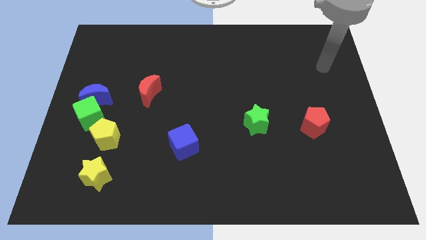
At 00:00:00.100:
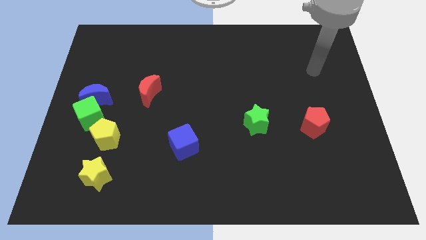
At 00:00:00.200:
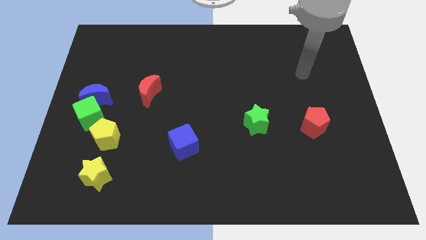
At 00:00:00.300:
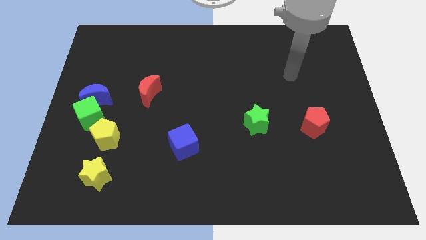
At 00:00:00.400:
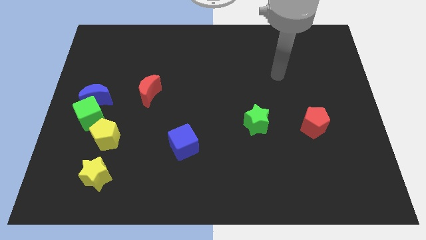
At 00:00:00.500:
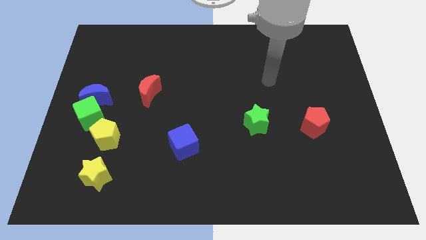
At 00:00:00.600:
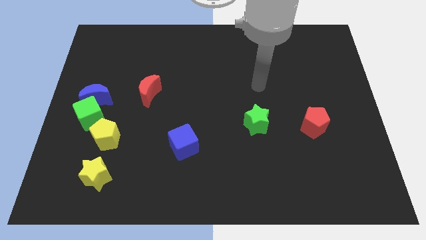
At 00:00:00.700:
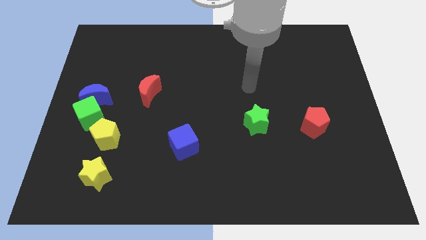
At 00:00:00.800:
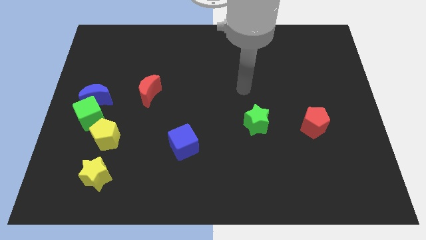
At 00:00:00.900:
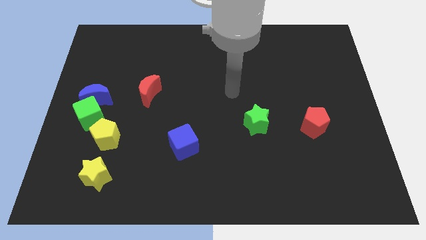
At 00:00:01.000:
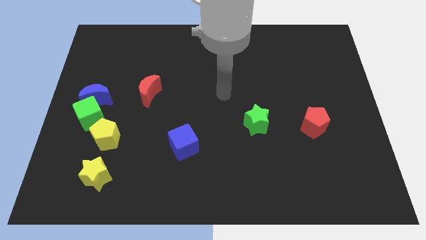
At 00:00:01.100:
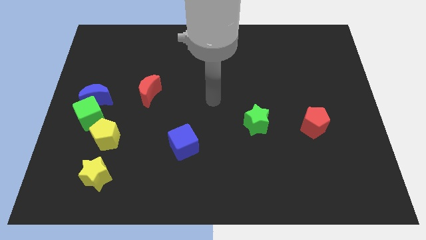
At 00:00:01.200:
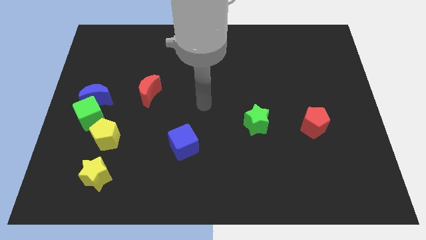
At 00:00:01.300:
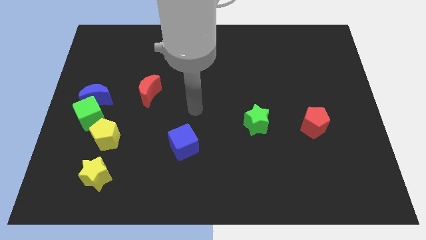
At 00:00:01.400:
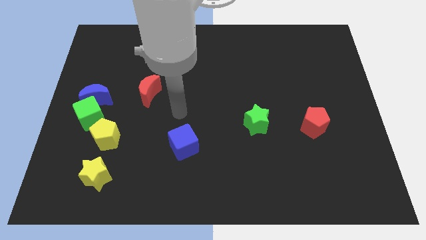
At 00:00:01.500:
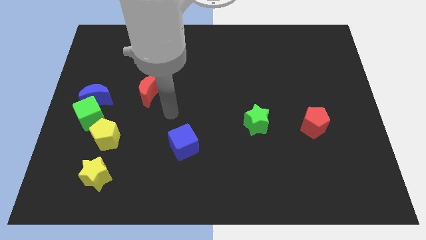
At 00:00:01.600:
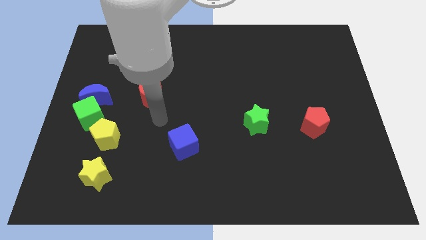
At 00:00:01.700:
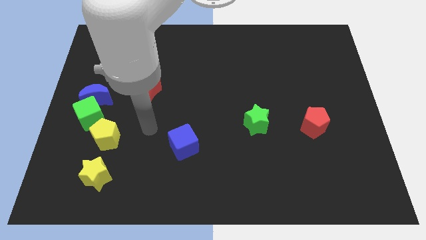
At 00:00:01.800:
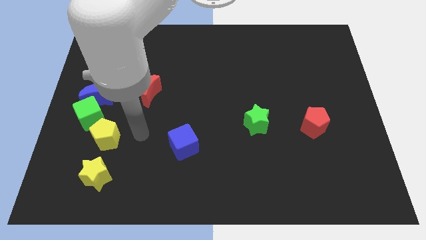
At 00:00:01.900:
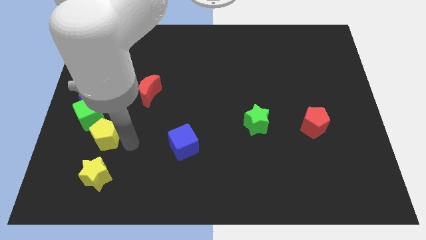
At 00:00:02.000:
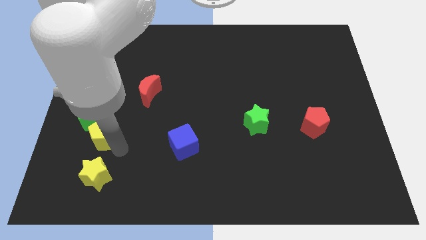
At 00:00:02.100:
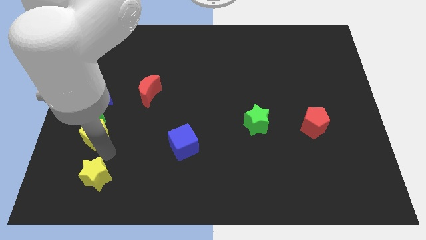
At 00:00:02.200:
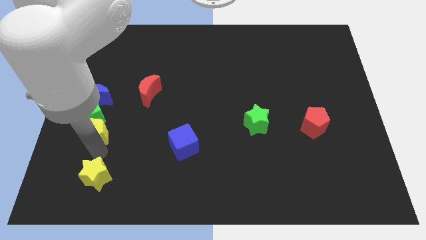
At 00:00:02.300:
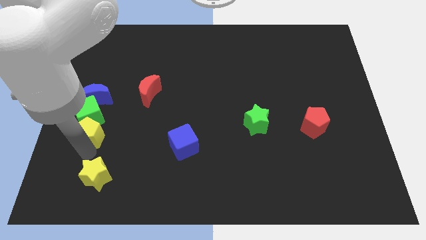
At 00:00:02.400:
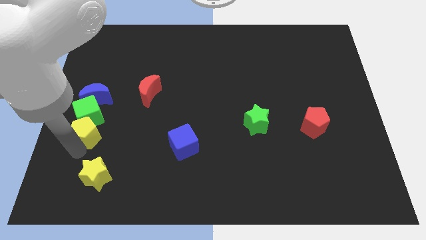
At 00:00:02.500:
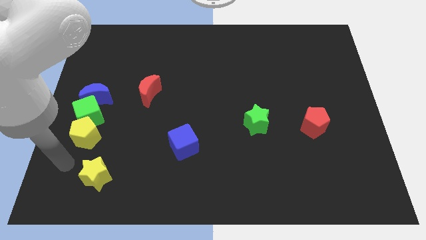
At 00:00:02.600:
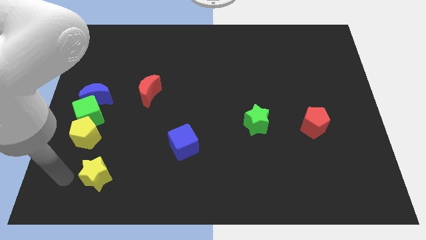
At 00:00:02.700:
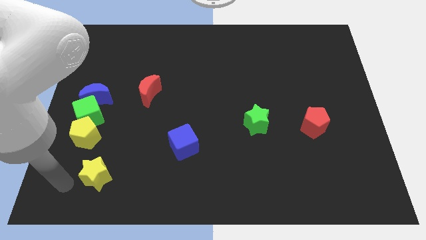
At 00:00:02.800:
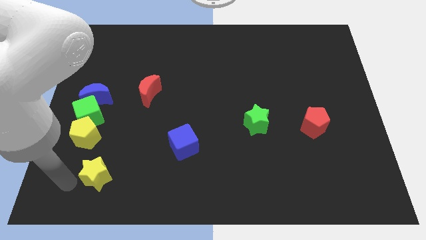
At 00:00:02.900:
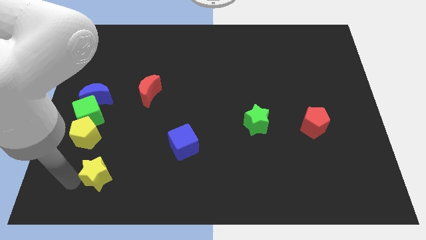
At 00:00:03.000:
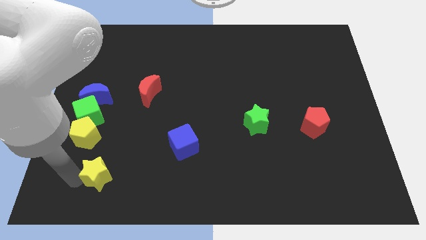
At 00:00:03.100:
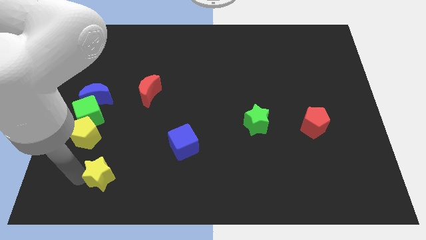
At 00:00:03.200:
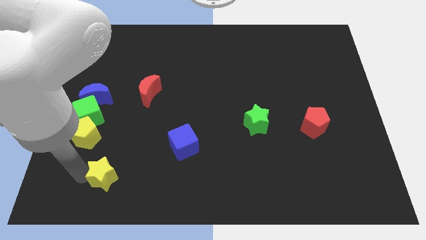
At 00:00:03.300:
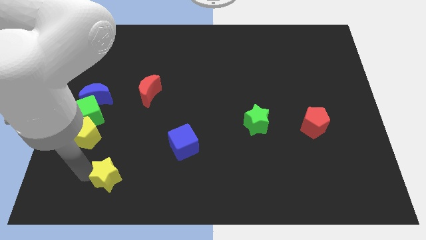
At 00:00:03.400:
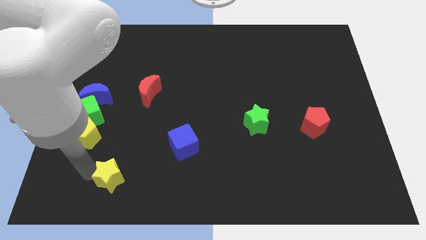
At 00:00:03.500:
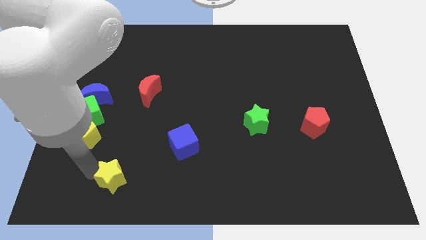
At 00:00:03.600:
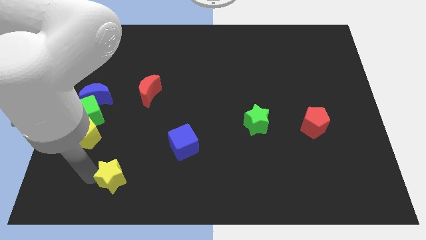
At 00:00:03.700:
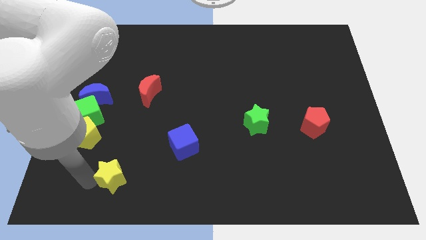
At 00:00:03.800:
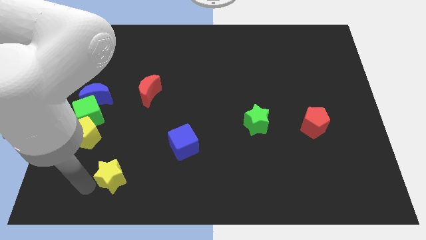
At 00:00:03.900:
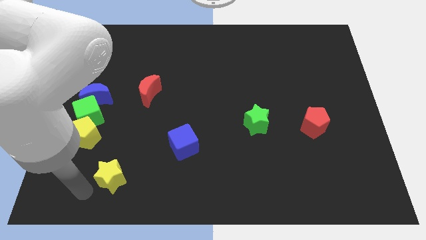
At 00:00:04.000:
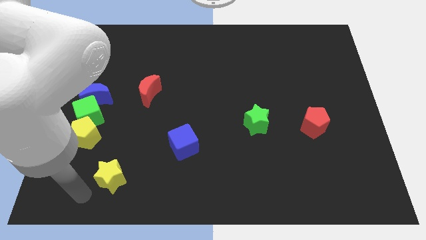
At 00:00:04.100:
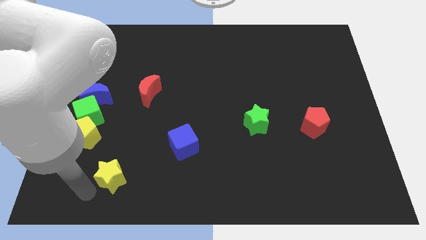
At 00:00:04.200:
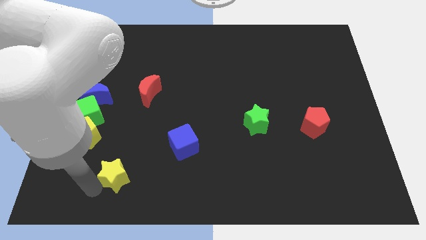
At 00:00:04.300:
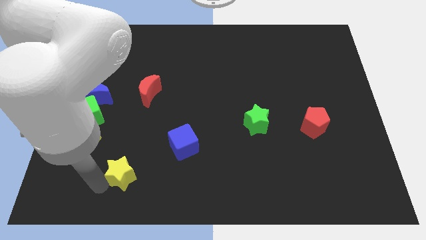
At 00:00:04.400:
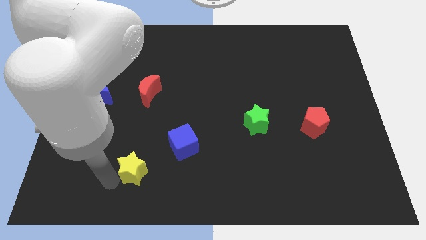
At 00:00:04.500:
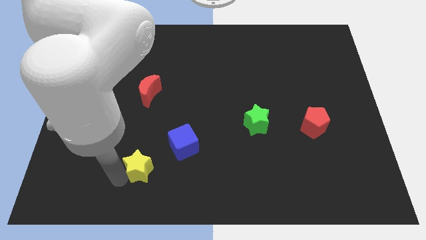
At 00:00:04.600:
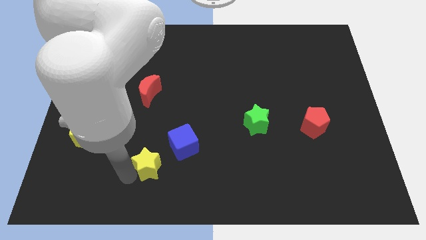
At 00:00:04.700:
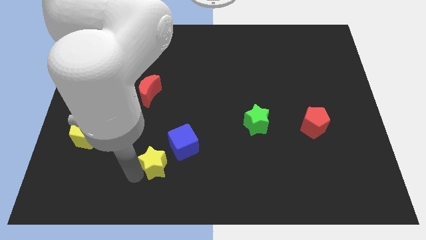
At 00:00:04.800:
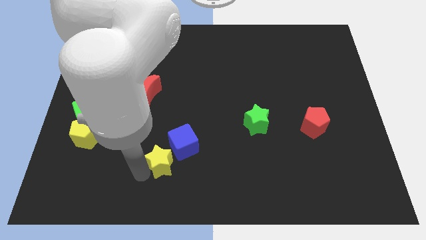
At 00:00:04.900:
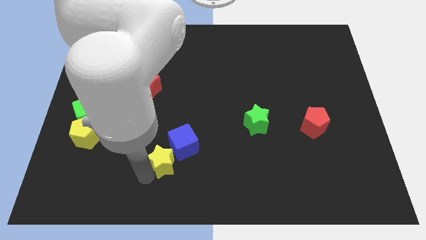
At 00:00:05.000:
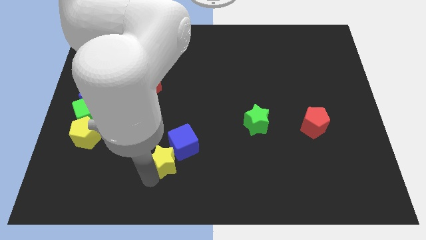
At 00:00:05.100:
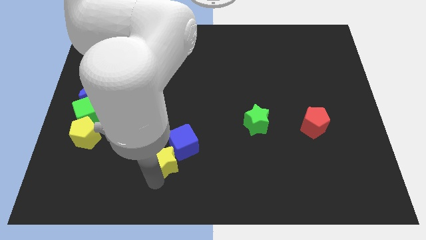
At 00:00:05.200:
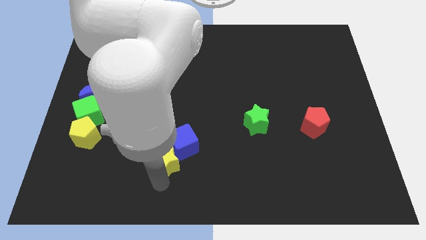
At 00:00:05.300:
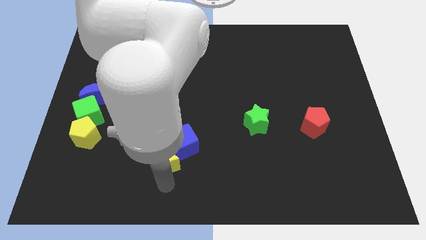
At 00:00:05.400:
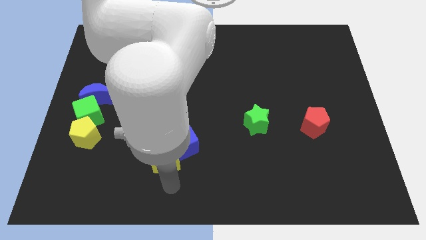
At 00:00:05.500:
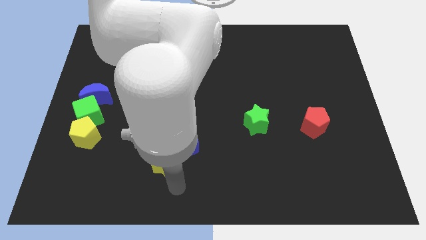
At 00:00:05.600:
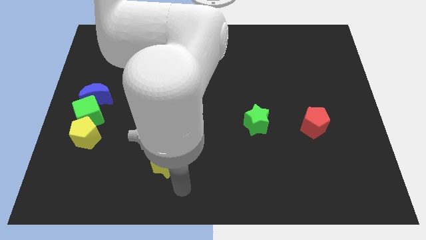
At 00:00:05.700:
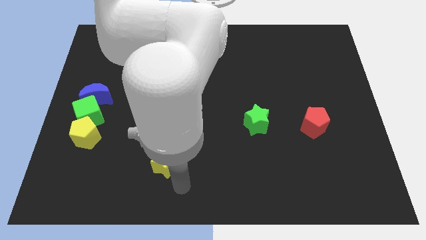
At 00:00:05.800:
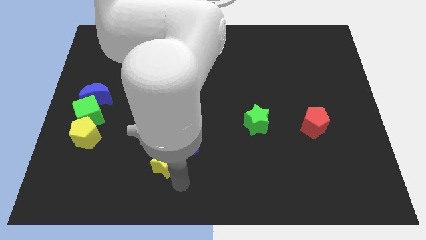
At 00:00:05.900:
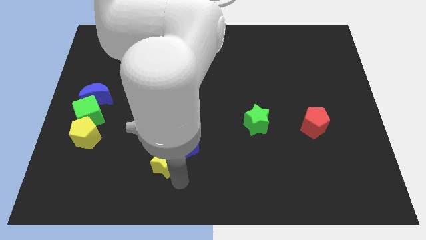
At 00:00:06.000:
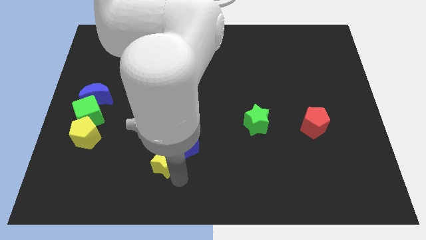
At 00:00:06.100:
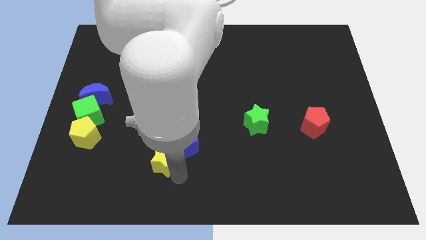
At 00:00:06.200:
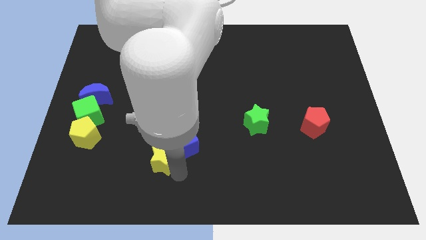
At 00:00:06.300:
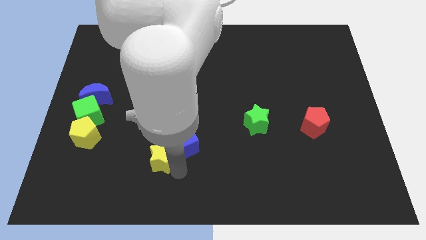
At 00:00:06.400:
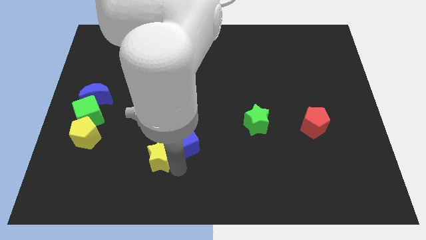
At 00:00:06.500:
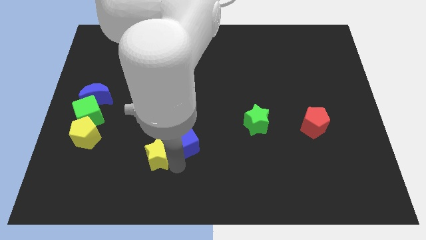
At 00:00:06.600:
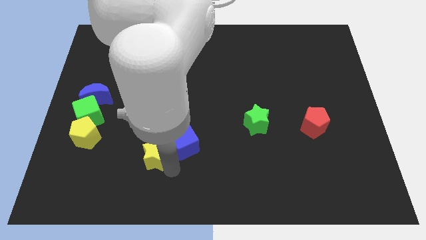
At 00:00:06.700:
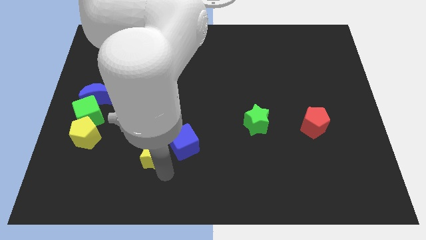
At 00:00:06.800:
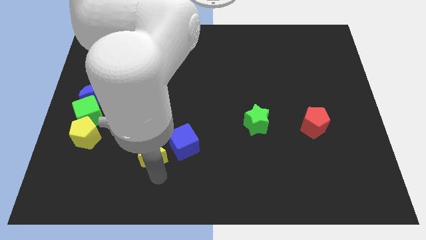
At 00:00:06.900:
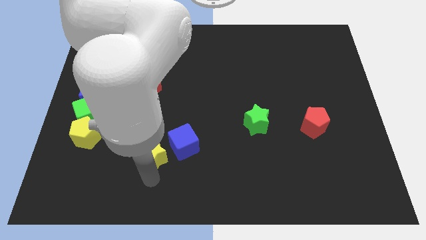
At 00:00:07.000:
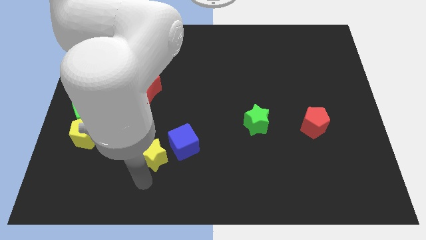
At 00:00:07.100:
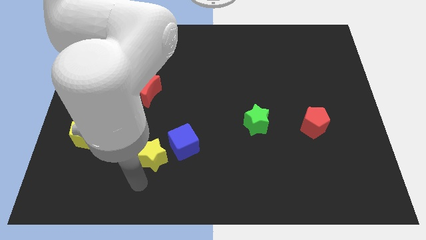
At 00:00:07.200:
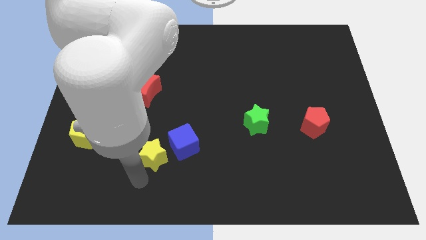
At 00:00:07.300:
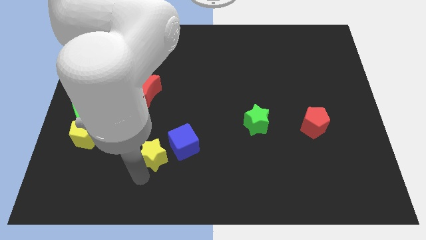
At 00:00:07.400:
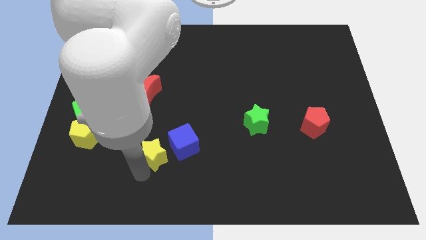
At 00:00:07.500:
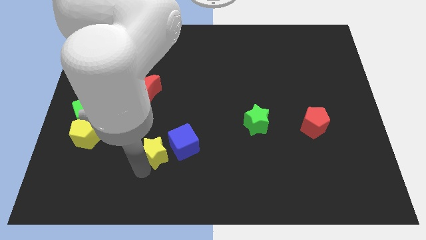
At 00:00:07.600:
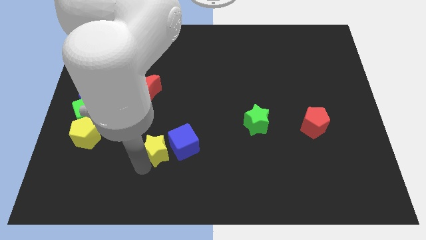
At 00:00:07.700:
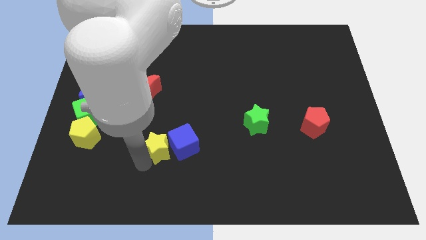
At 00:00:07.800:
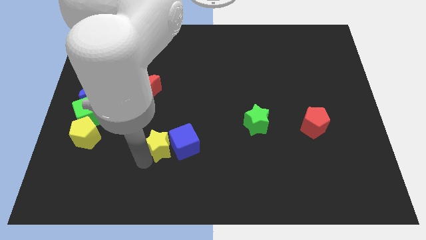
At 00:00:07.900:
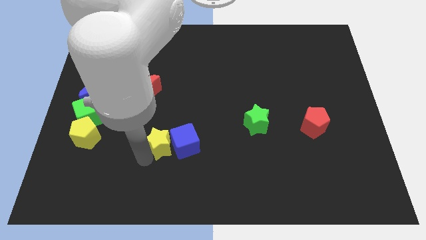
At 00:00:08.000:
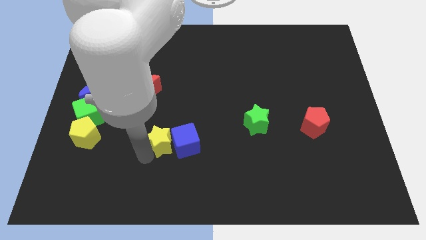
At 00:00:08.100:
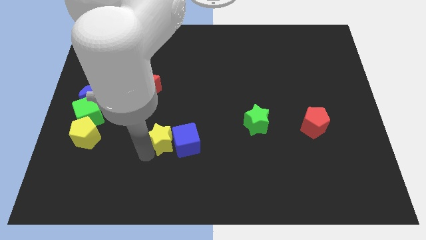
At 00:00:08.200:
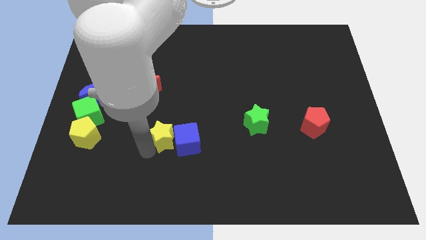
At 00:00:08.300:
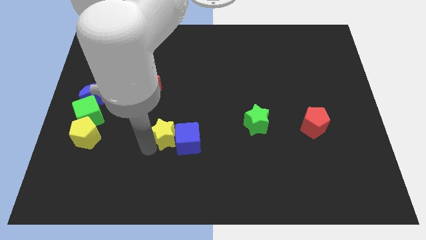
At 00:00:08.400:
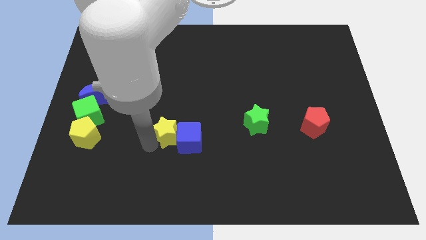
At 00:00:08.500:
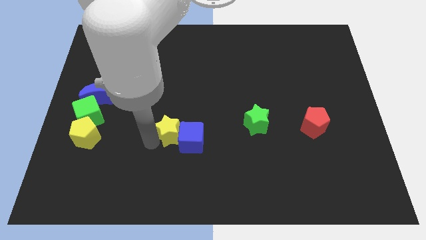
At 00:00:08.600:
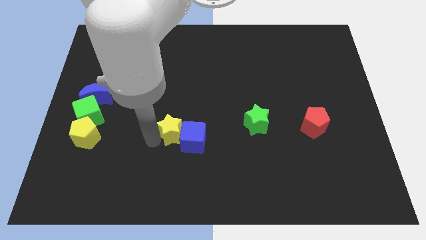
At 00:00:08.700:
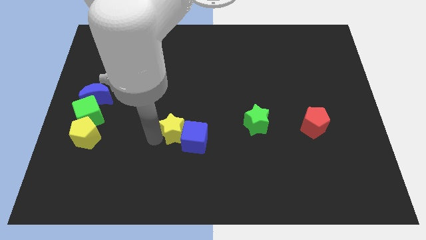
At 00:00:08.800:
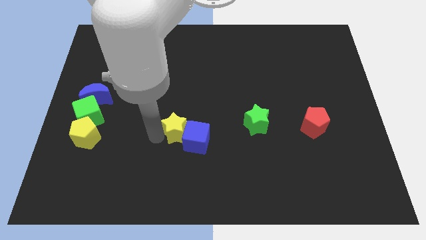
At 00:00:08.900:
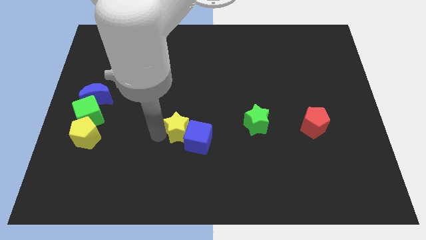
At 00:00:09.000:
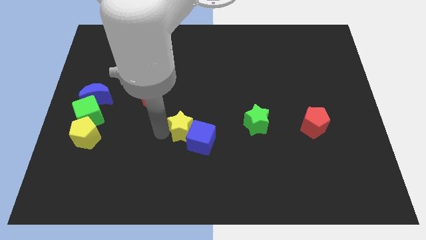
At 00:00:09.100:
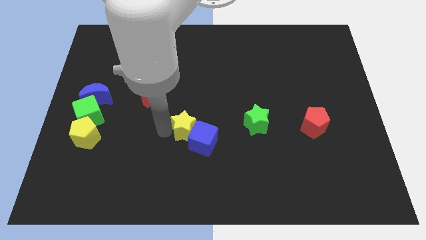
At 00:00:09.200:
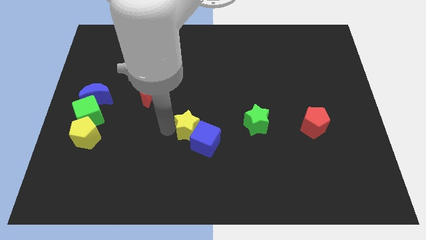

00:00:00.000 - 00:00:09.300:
push the yellow star just left of the green star
